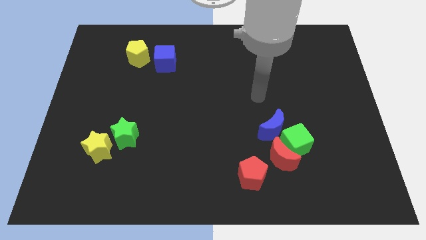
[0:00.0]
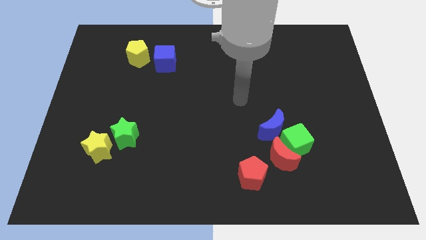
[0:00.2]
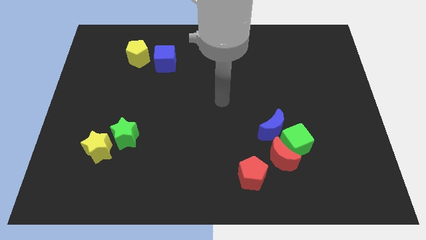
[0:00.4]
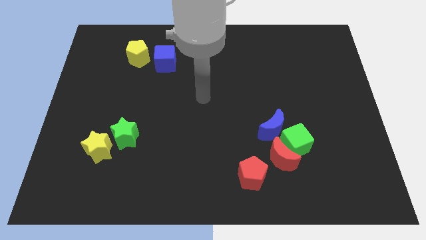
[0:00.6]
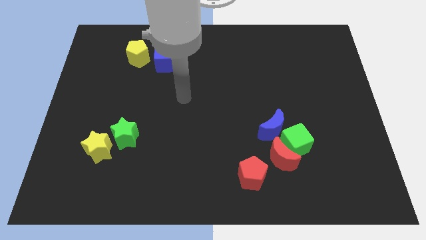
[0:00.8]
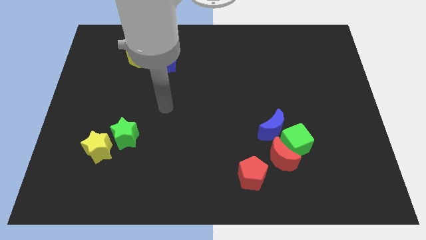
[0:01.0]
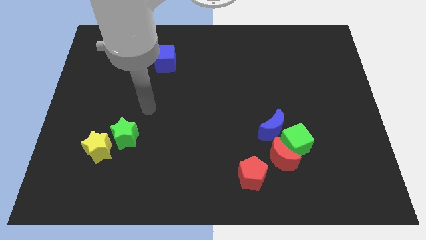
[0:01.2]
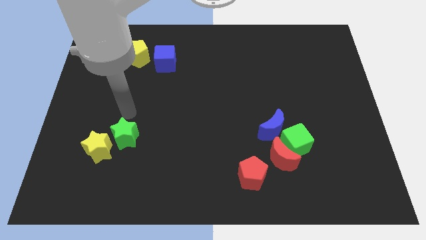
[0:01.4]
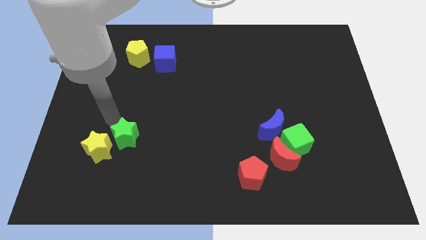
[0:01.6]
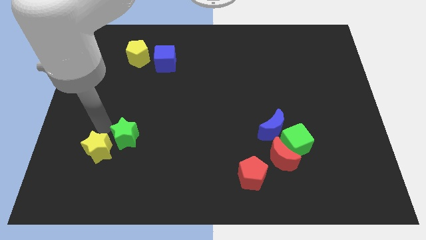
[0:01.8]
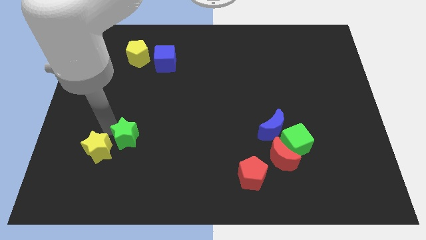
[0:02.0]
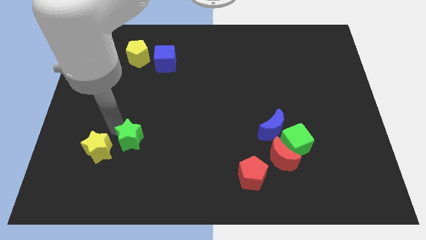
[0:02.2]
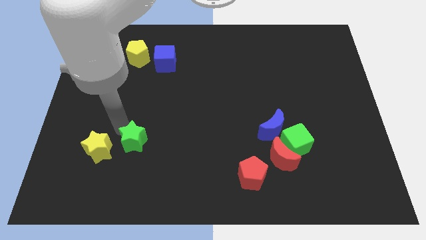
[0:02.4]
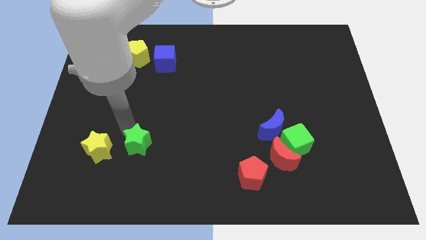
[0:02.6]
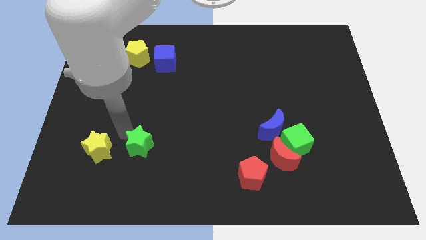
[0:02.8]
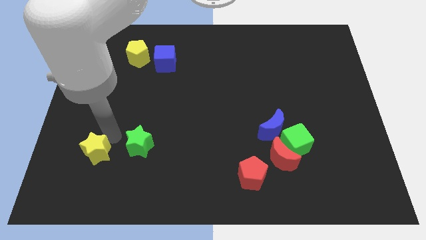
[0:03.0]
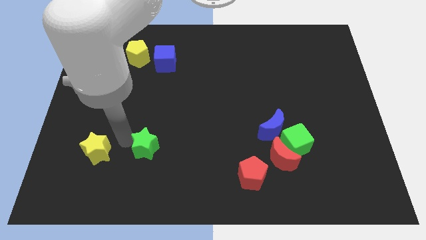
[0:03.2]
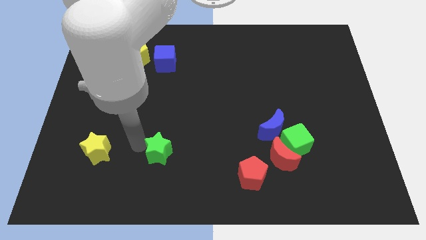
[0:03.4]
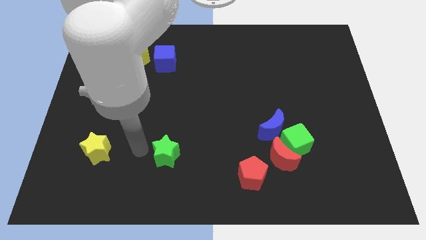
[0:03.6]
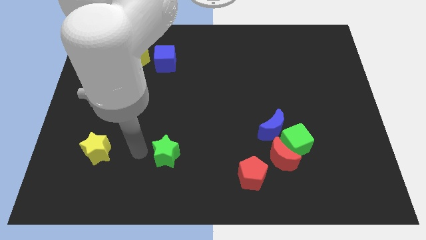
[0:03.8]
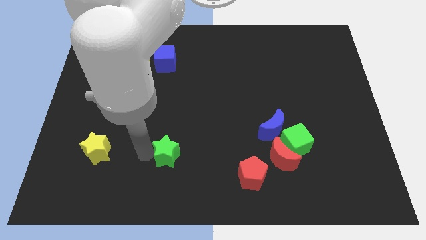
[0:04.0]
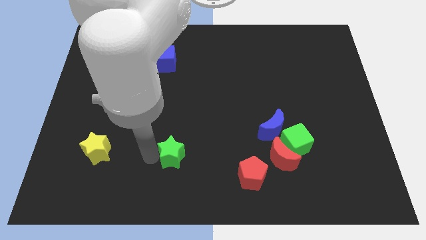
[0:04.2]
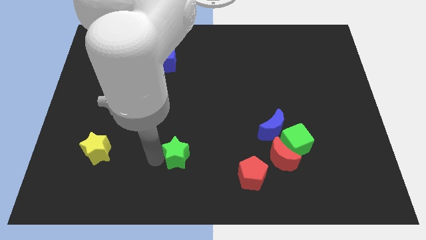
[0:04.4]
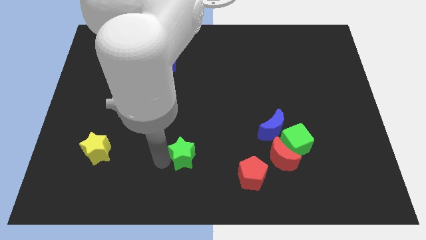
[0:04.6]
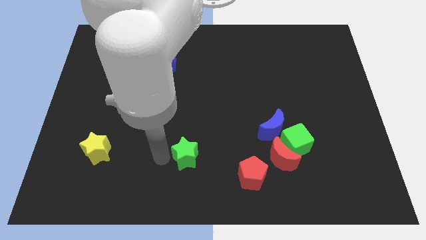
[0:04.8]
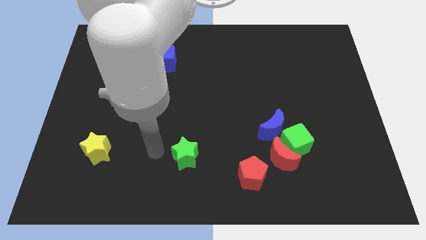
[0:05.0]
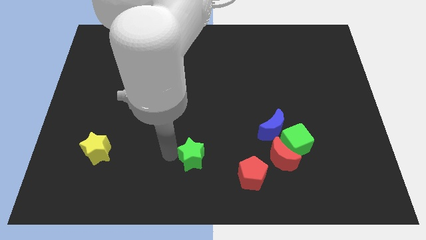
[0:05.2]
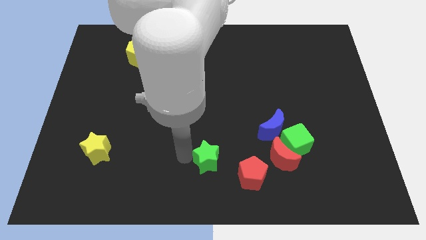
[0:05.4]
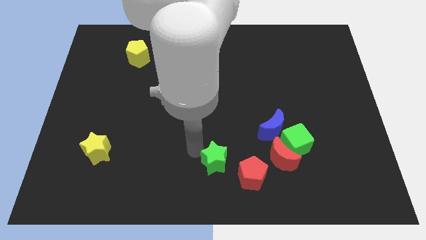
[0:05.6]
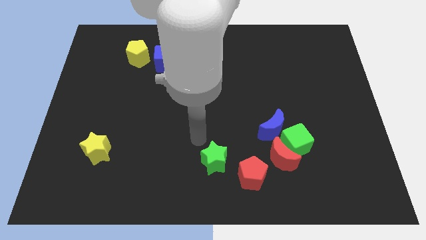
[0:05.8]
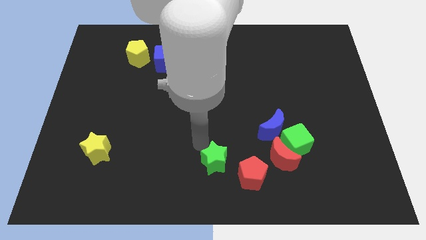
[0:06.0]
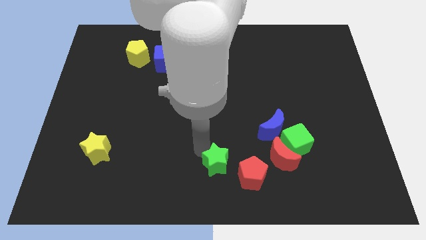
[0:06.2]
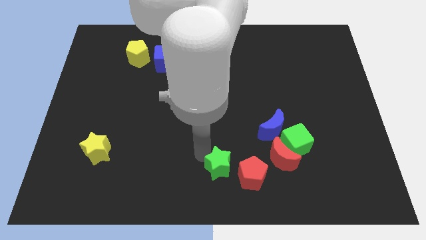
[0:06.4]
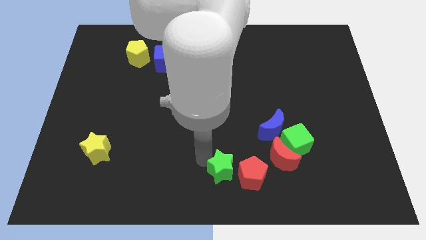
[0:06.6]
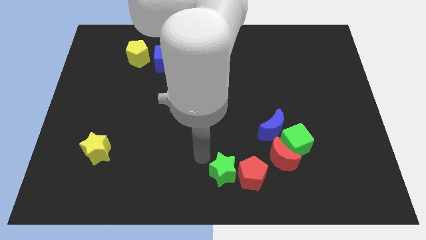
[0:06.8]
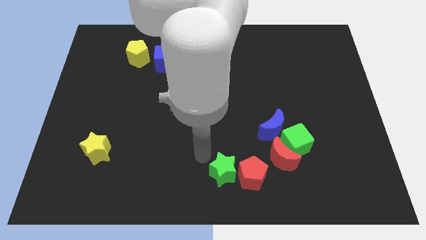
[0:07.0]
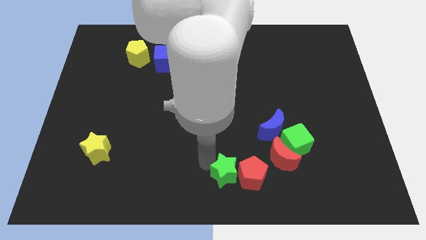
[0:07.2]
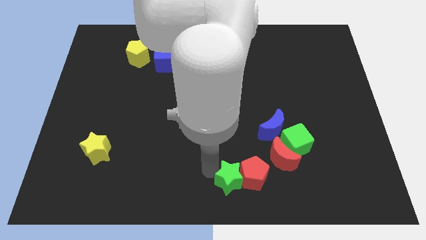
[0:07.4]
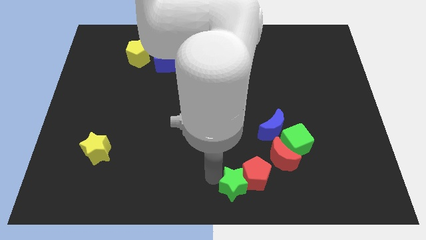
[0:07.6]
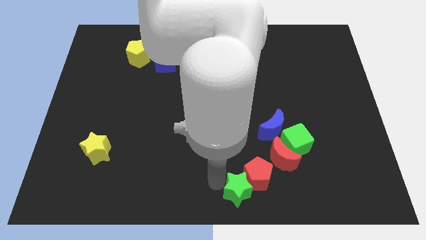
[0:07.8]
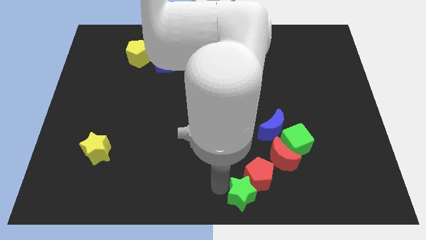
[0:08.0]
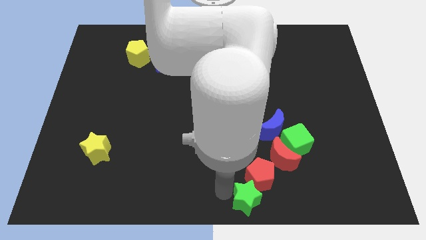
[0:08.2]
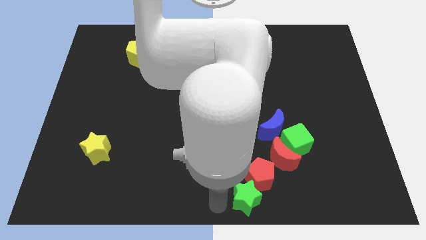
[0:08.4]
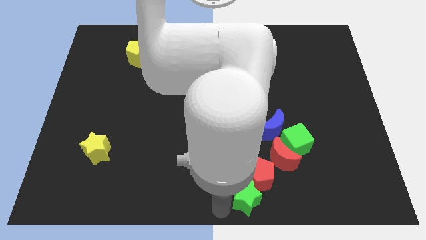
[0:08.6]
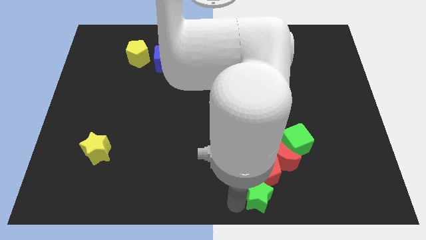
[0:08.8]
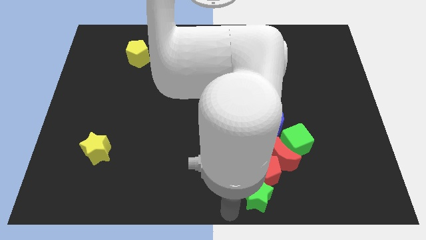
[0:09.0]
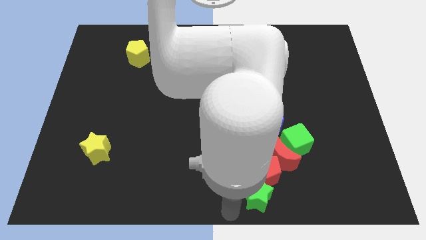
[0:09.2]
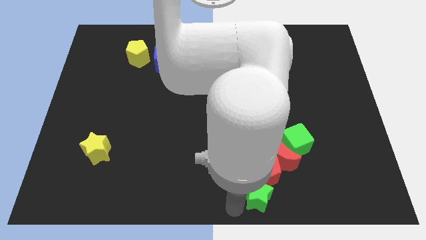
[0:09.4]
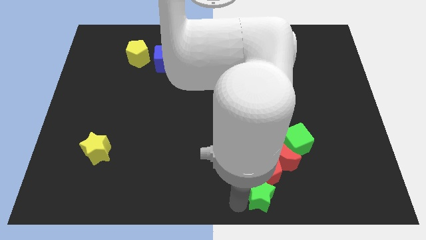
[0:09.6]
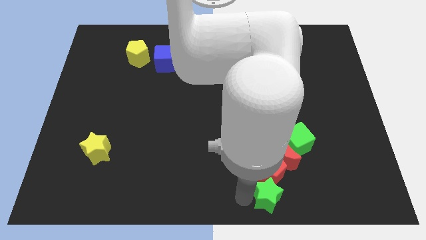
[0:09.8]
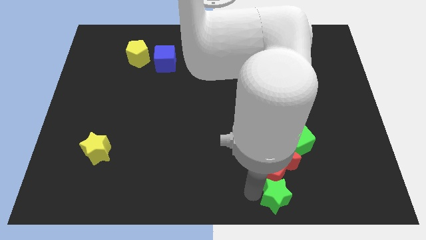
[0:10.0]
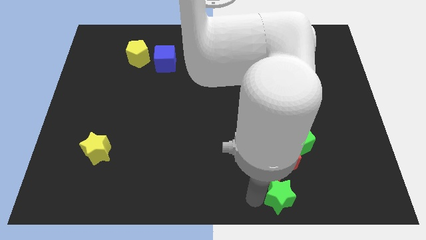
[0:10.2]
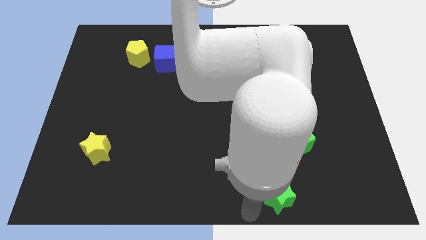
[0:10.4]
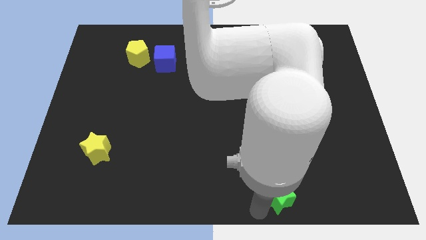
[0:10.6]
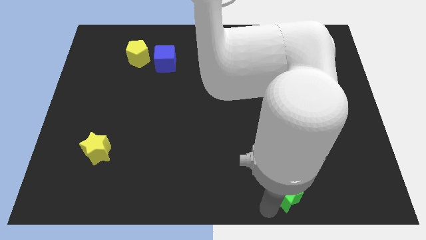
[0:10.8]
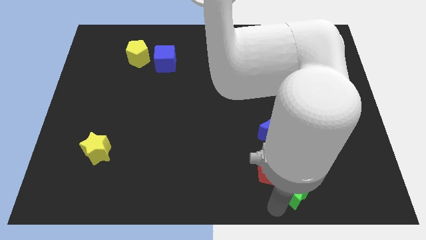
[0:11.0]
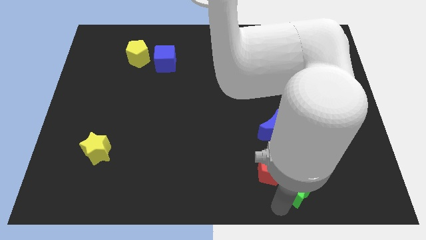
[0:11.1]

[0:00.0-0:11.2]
move the green star to the bottom right side of the red moon
